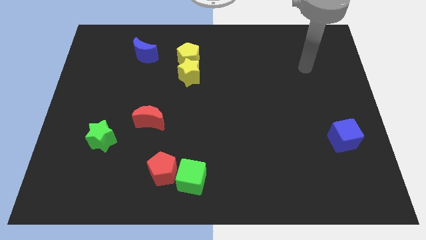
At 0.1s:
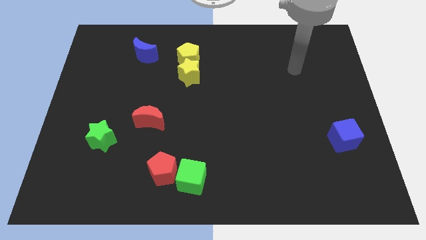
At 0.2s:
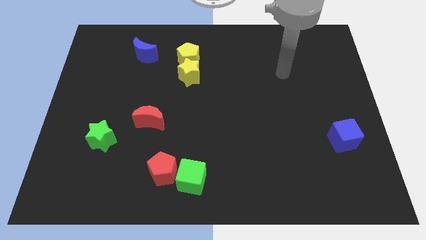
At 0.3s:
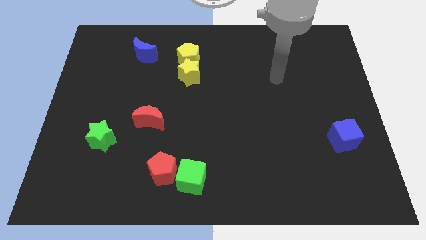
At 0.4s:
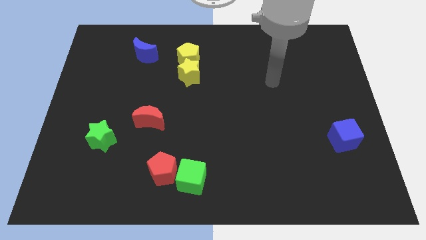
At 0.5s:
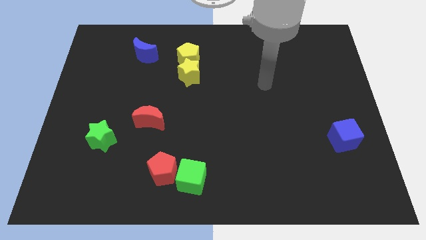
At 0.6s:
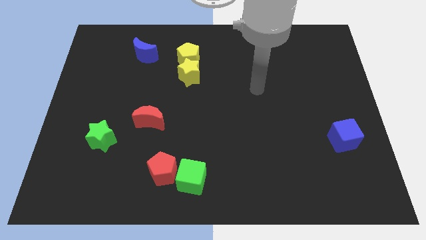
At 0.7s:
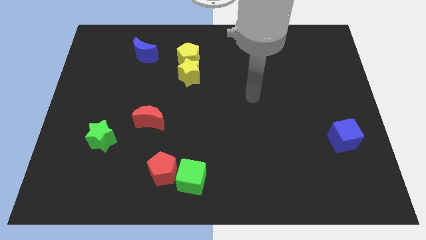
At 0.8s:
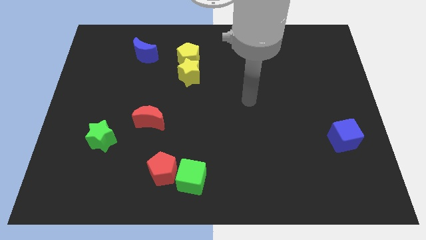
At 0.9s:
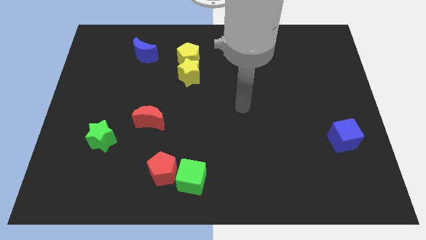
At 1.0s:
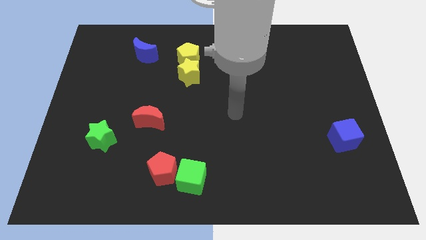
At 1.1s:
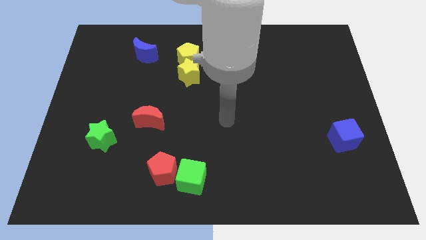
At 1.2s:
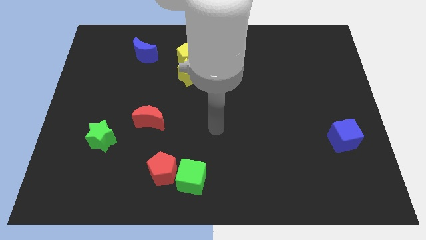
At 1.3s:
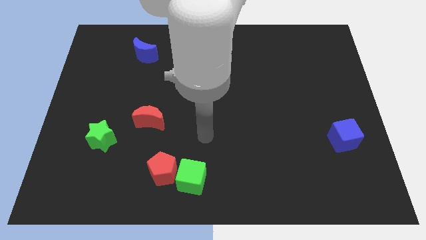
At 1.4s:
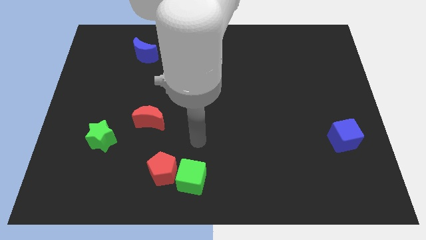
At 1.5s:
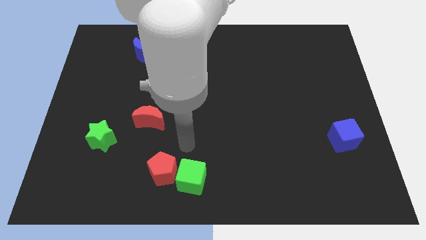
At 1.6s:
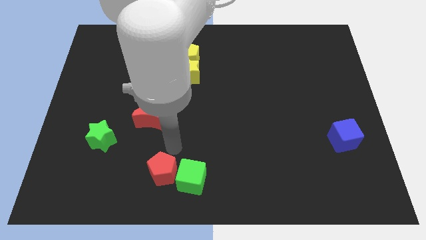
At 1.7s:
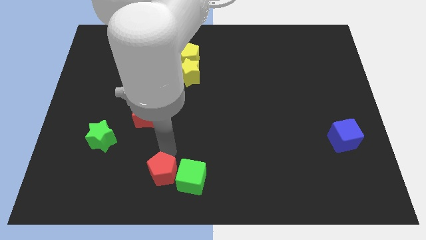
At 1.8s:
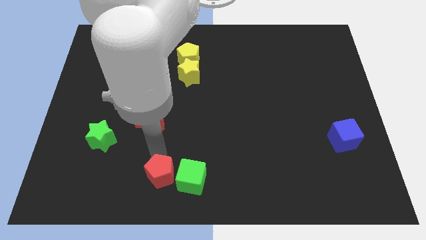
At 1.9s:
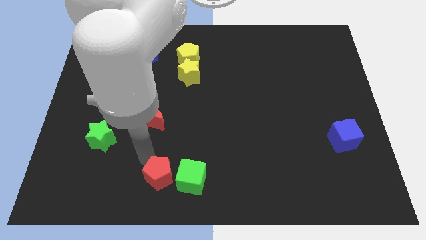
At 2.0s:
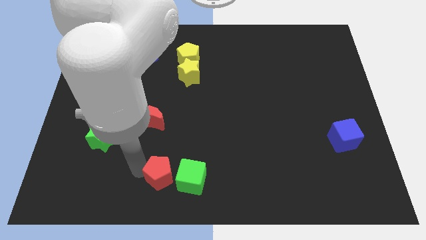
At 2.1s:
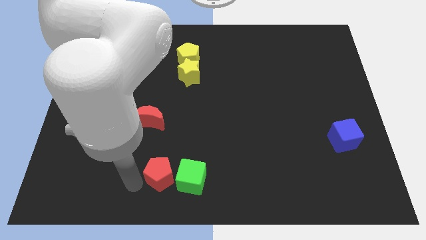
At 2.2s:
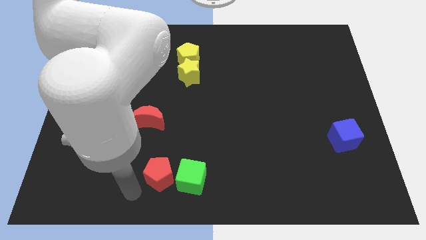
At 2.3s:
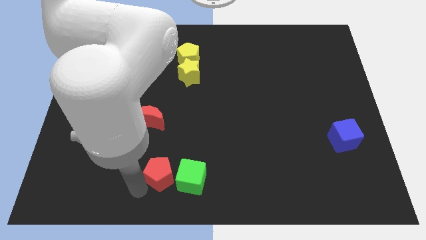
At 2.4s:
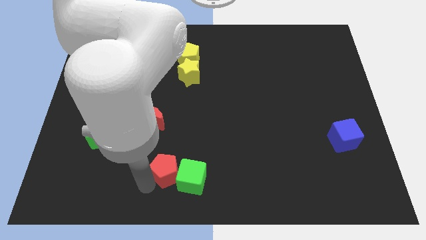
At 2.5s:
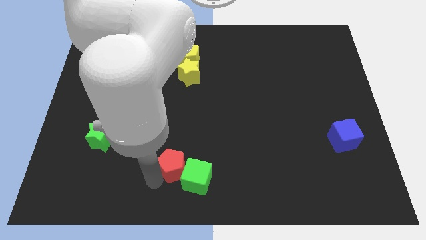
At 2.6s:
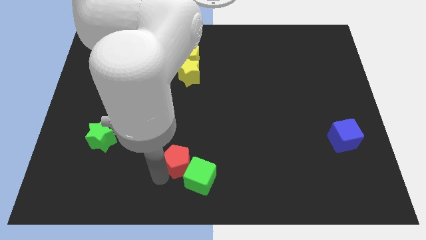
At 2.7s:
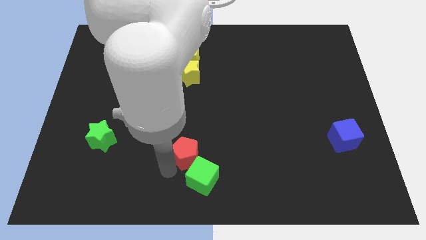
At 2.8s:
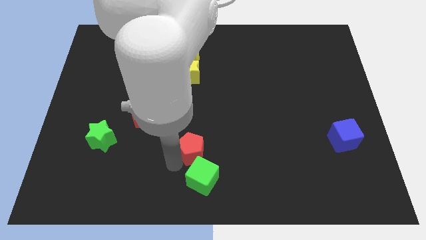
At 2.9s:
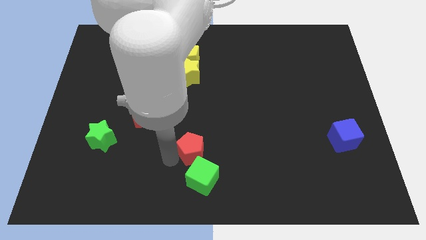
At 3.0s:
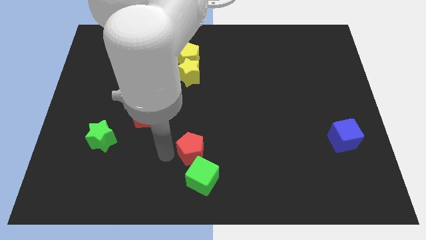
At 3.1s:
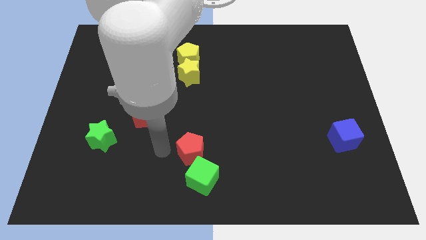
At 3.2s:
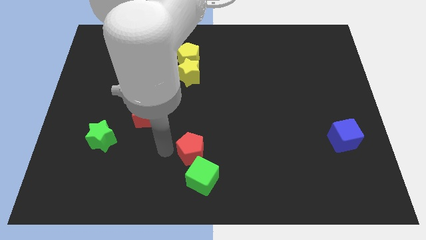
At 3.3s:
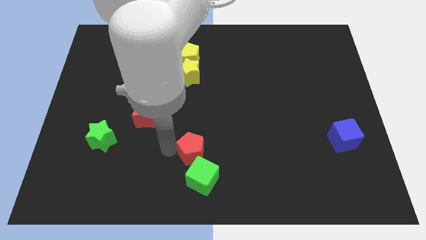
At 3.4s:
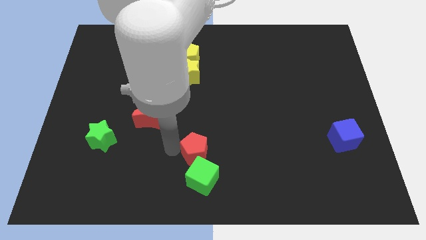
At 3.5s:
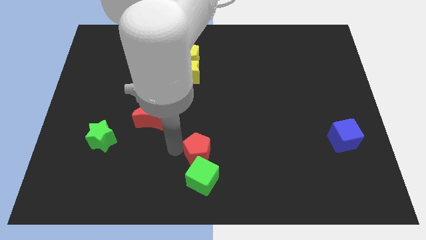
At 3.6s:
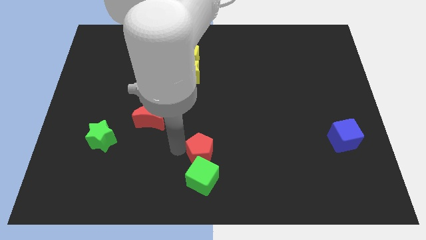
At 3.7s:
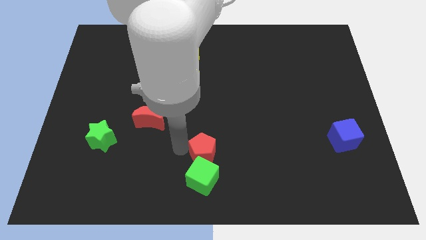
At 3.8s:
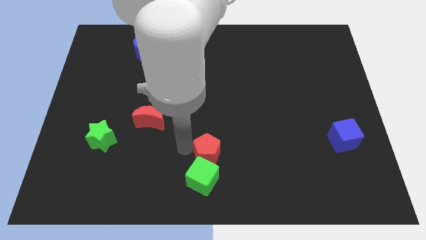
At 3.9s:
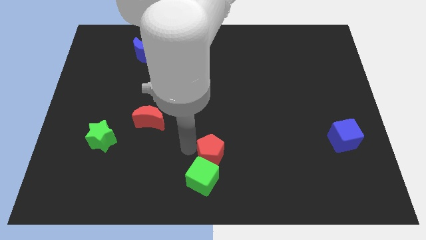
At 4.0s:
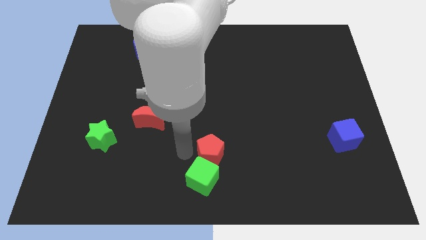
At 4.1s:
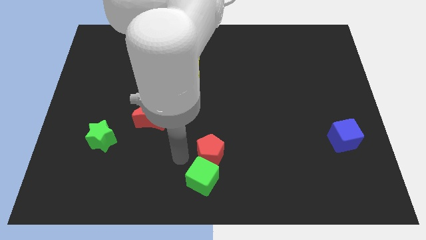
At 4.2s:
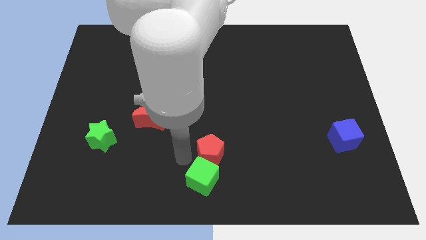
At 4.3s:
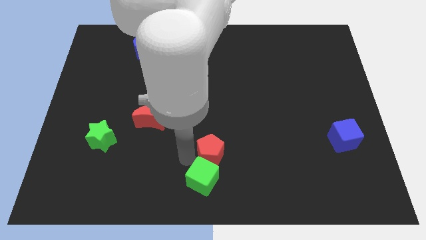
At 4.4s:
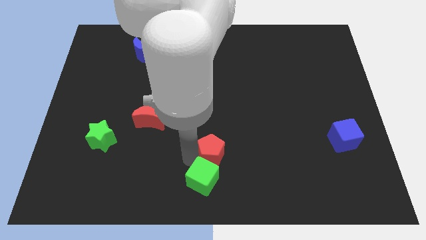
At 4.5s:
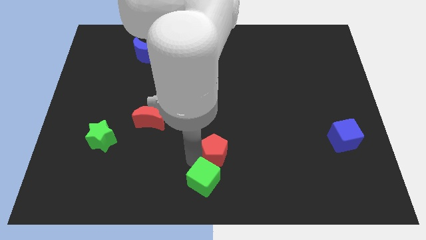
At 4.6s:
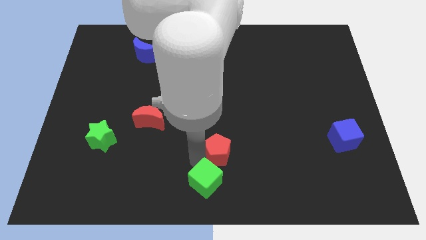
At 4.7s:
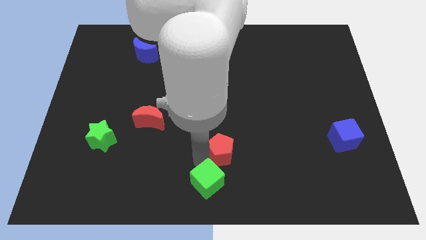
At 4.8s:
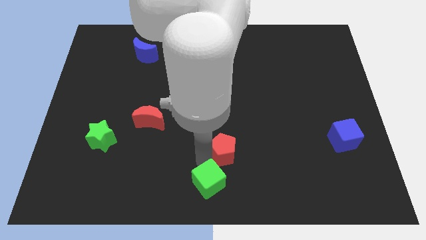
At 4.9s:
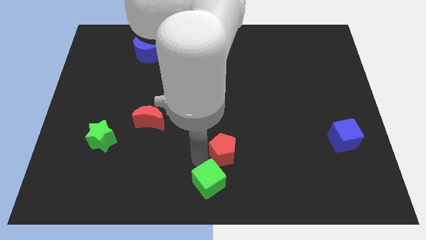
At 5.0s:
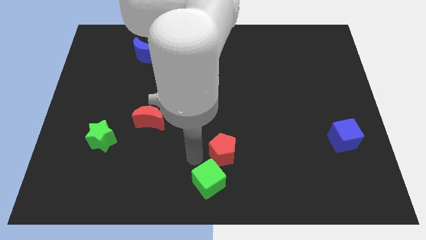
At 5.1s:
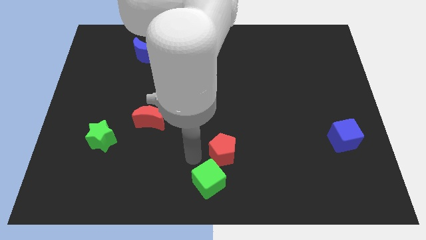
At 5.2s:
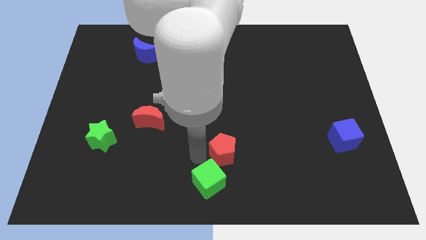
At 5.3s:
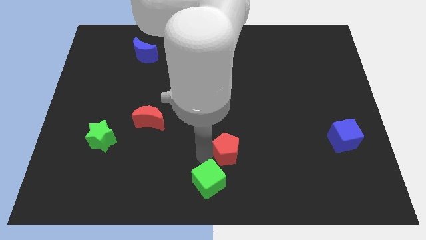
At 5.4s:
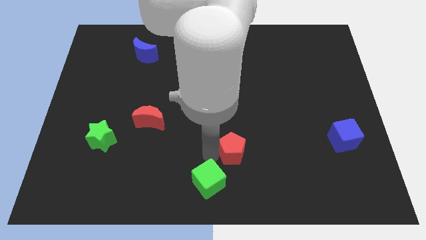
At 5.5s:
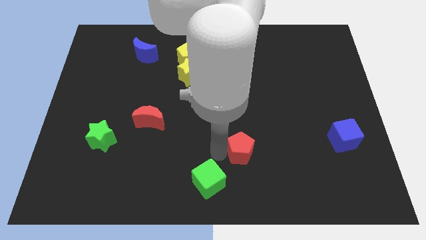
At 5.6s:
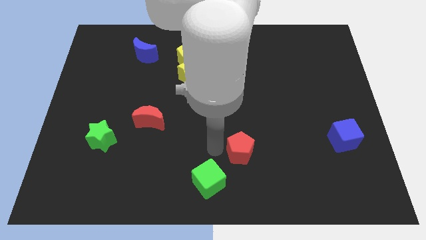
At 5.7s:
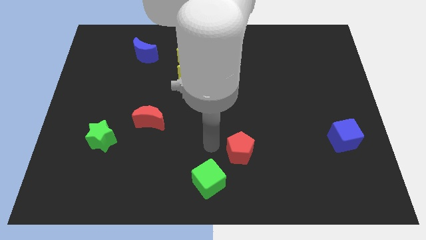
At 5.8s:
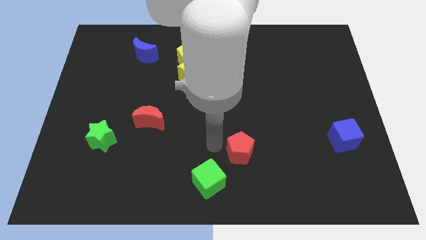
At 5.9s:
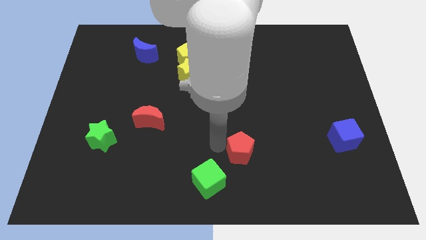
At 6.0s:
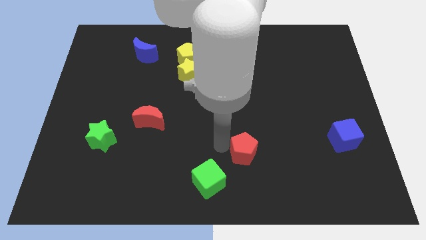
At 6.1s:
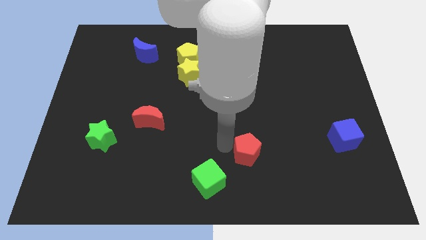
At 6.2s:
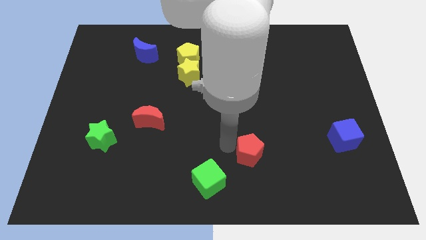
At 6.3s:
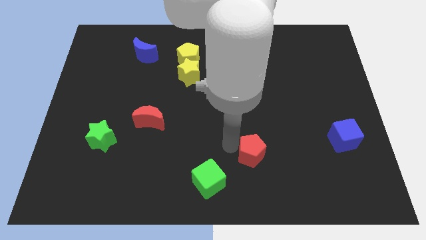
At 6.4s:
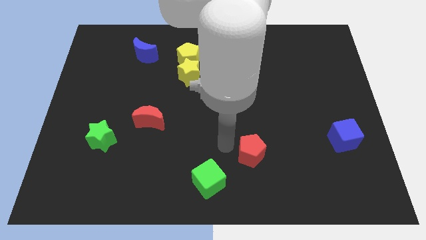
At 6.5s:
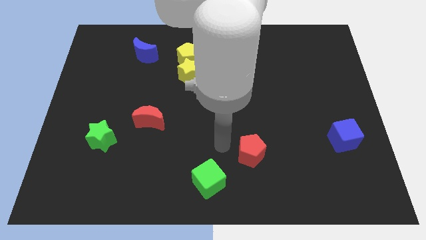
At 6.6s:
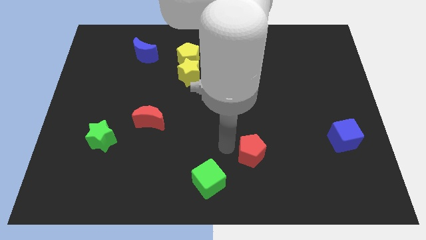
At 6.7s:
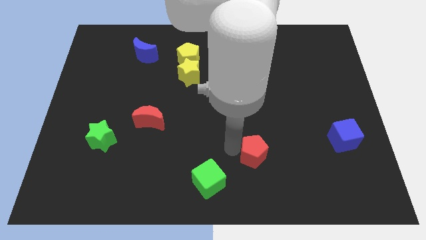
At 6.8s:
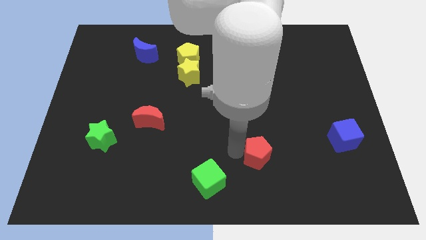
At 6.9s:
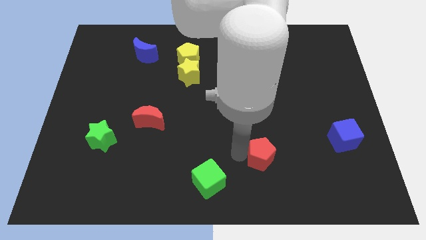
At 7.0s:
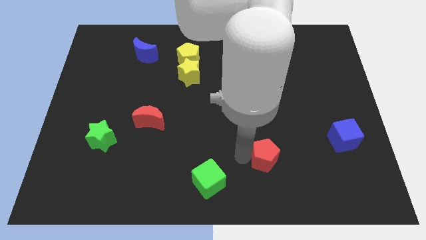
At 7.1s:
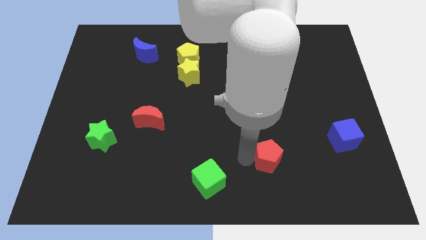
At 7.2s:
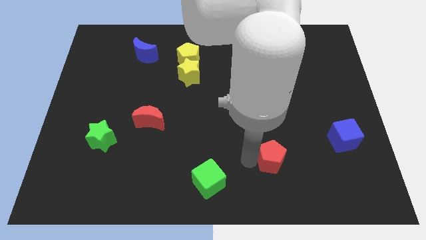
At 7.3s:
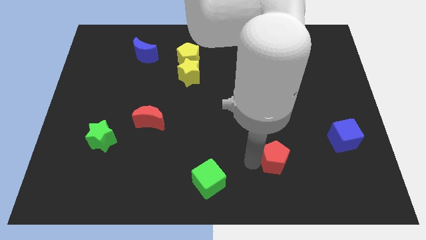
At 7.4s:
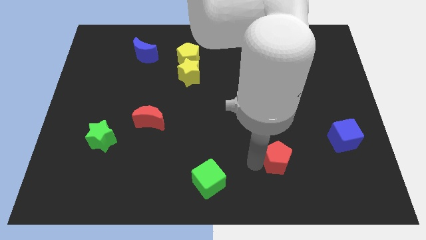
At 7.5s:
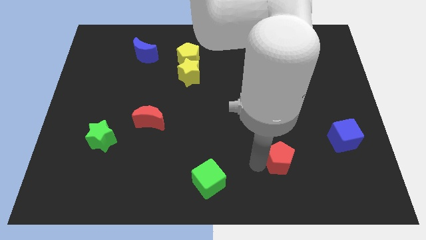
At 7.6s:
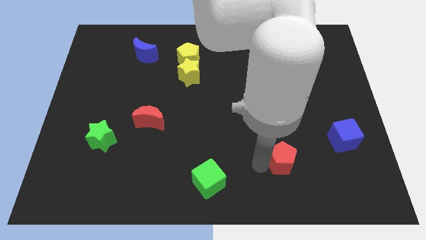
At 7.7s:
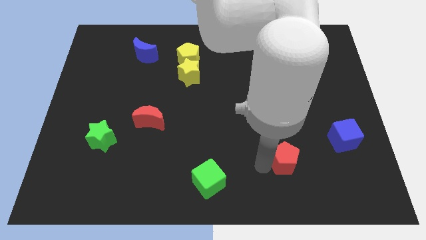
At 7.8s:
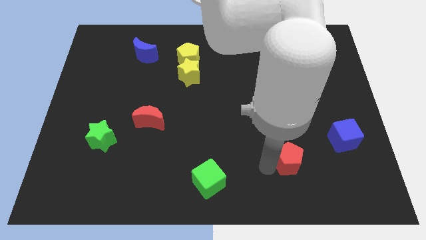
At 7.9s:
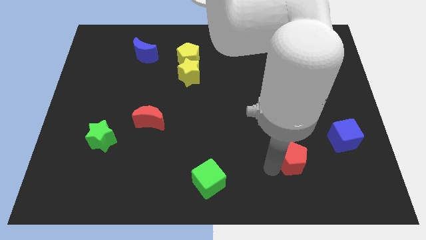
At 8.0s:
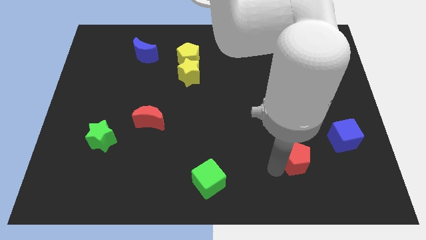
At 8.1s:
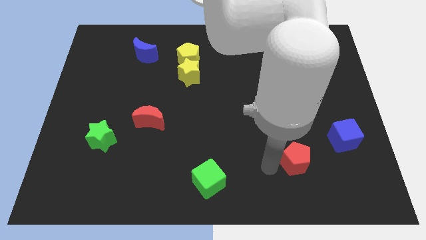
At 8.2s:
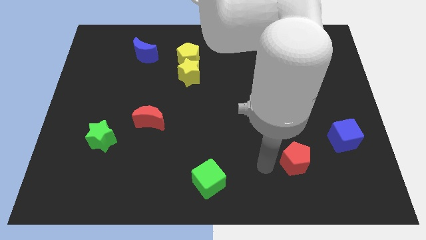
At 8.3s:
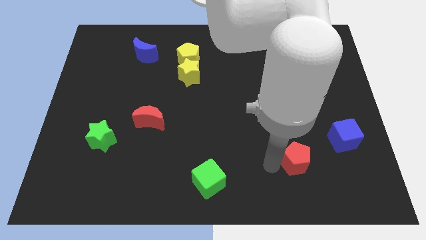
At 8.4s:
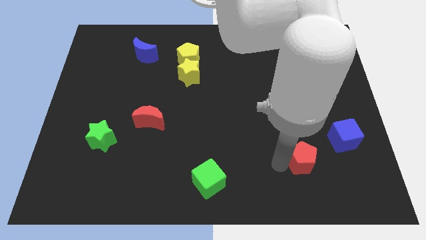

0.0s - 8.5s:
slide the red pentagon to the bottom left of the blue cube
